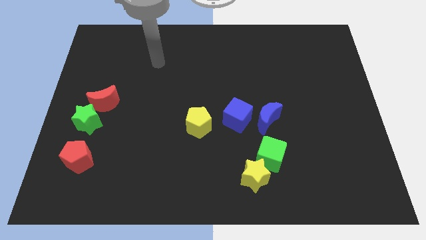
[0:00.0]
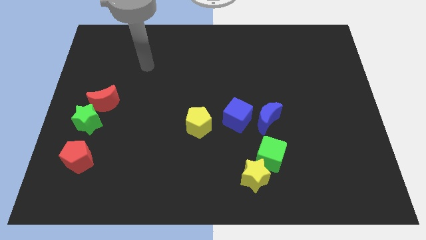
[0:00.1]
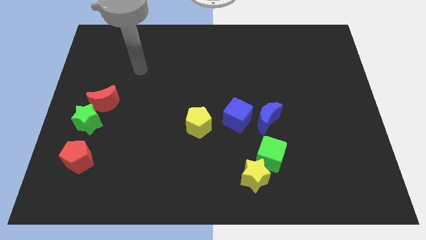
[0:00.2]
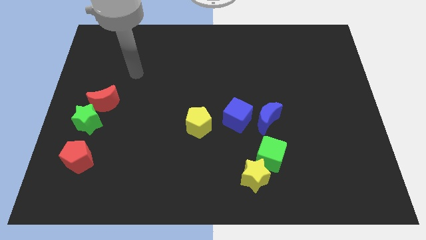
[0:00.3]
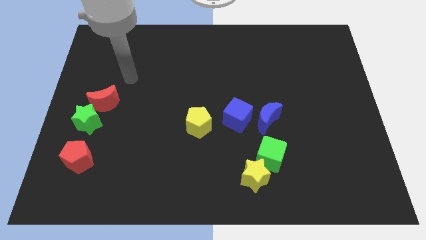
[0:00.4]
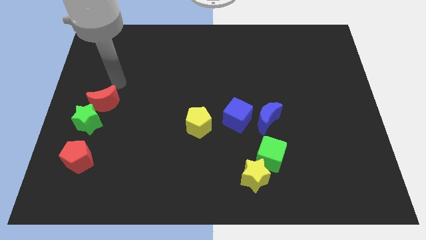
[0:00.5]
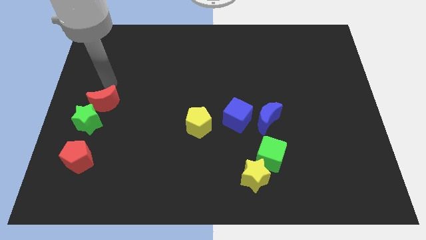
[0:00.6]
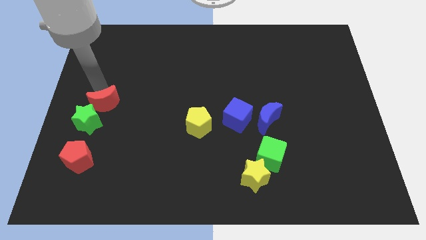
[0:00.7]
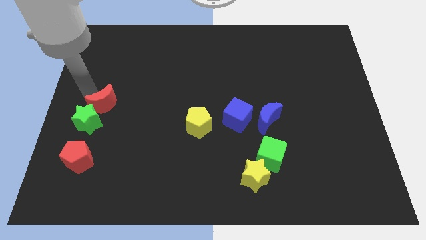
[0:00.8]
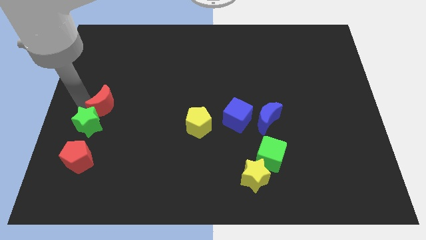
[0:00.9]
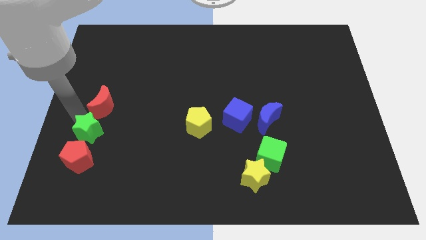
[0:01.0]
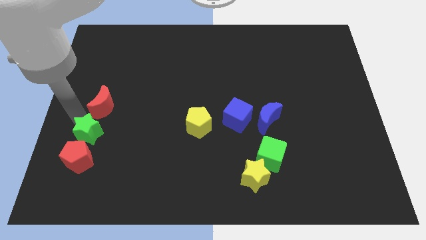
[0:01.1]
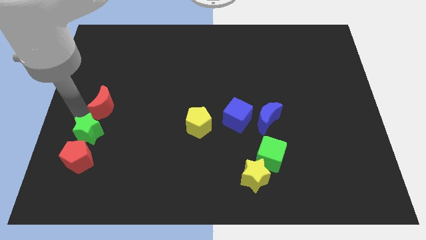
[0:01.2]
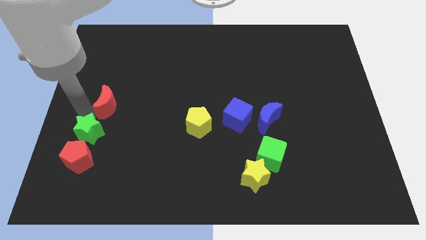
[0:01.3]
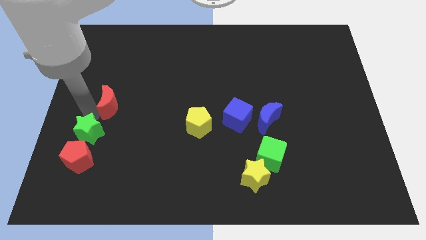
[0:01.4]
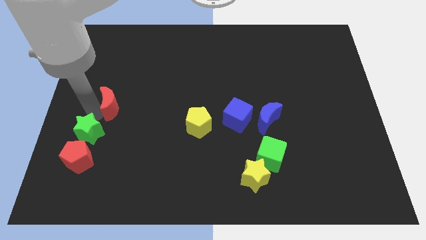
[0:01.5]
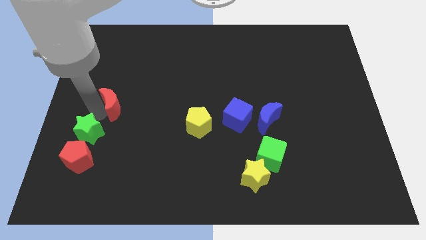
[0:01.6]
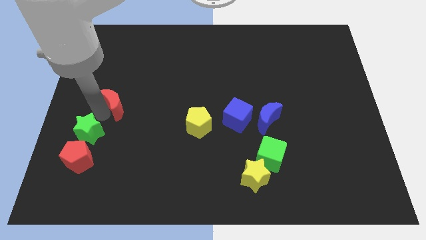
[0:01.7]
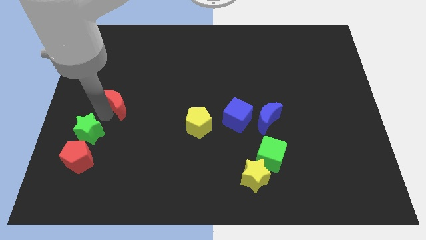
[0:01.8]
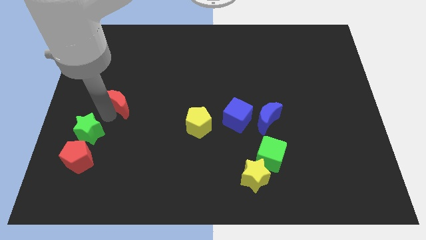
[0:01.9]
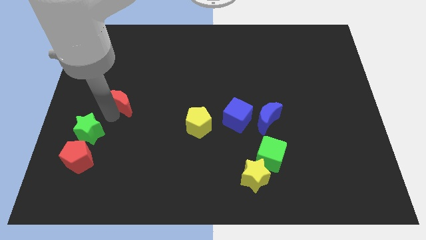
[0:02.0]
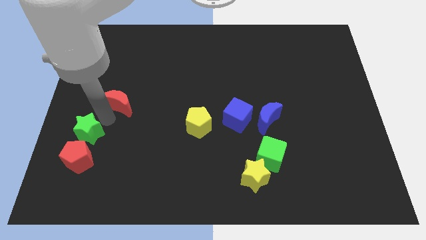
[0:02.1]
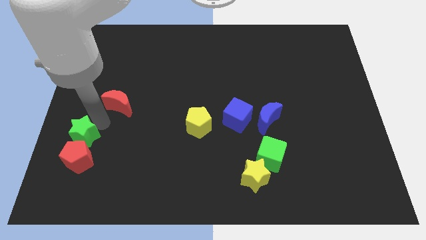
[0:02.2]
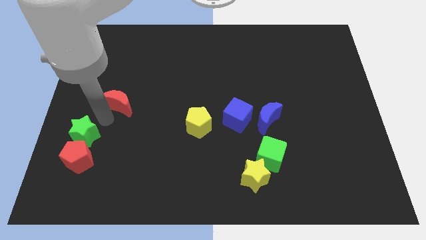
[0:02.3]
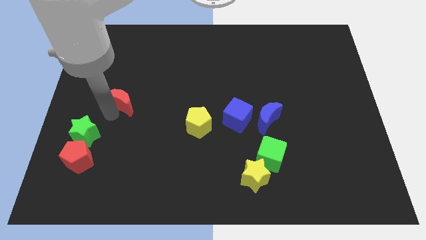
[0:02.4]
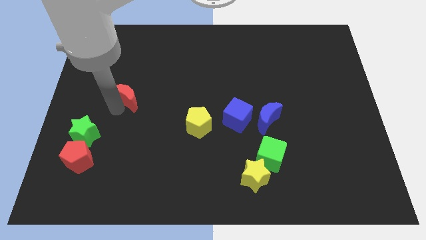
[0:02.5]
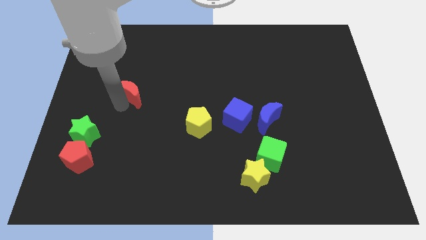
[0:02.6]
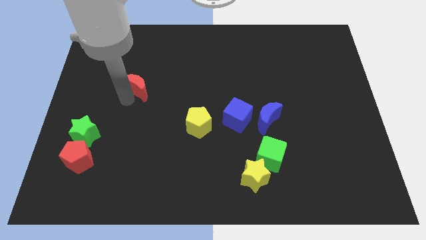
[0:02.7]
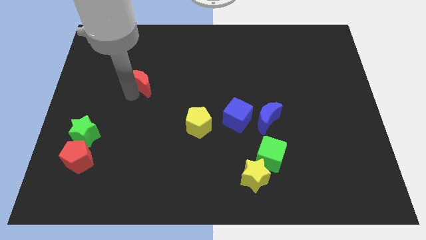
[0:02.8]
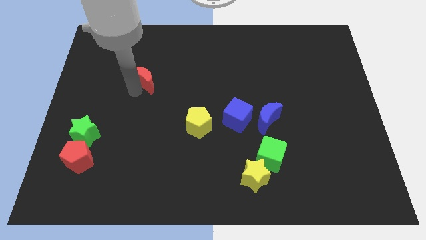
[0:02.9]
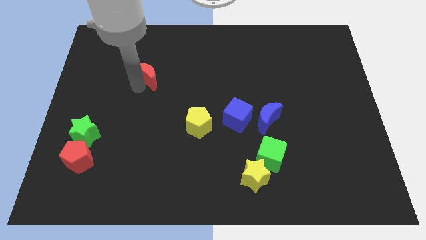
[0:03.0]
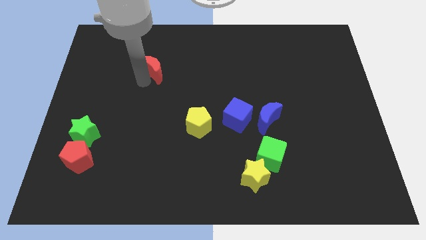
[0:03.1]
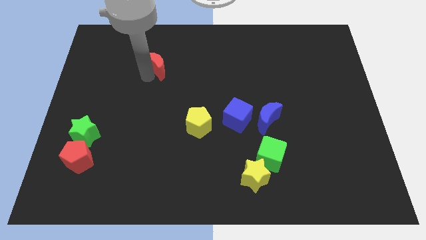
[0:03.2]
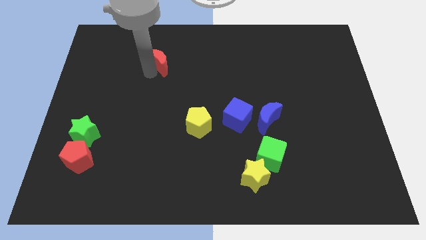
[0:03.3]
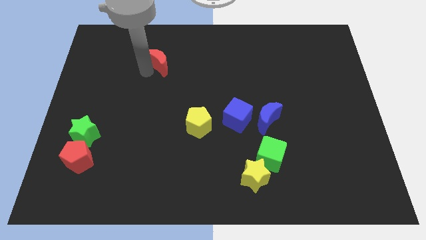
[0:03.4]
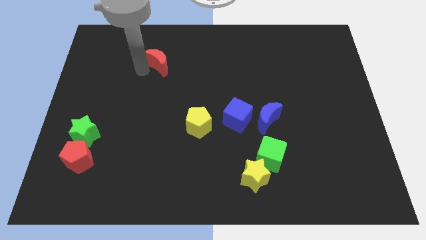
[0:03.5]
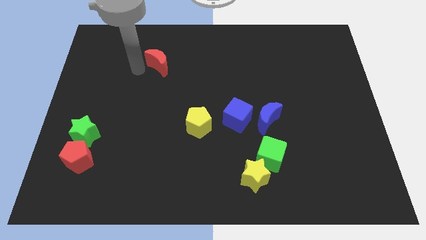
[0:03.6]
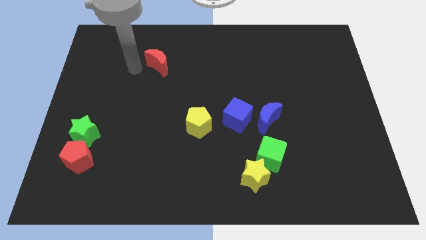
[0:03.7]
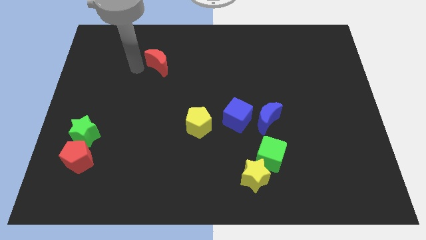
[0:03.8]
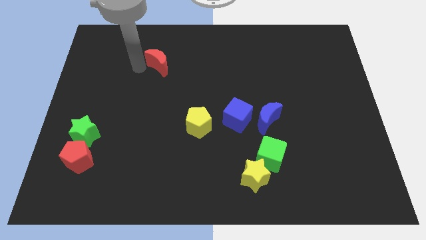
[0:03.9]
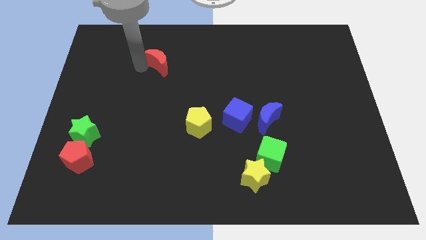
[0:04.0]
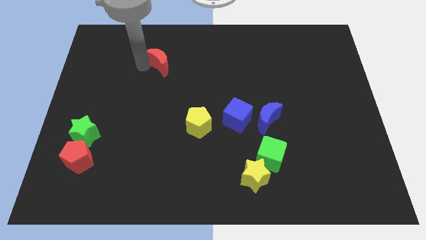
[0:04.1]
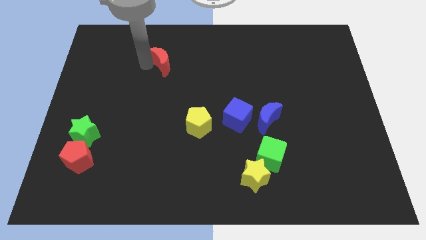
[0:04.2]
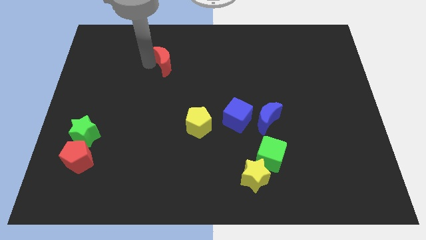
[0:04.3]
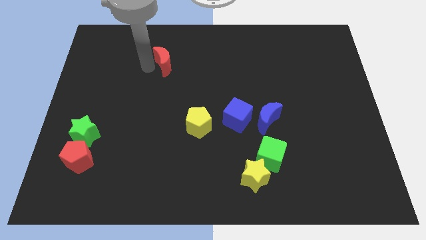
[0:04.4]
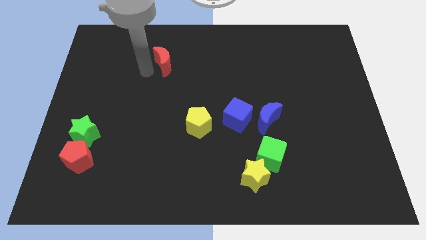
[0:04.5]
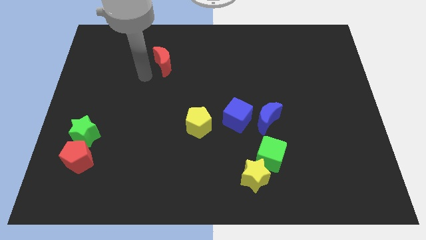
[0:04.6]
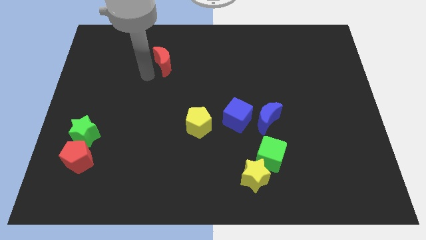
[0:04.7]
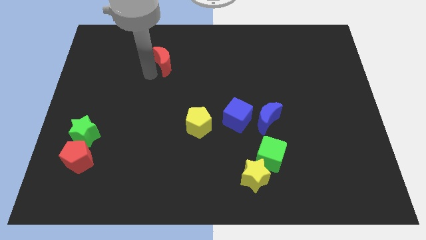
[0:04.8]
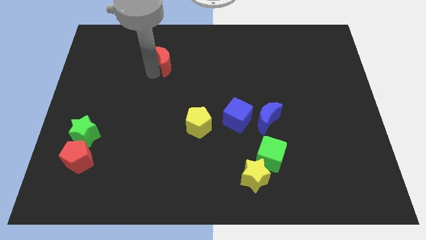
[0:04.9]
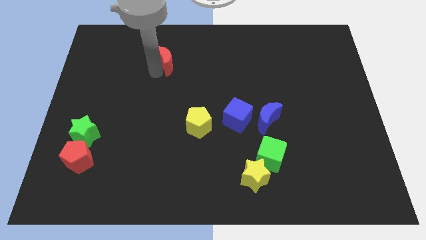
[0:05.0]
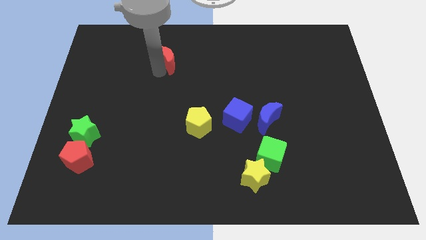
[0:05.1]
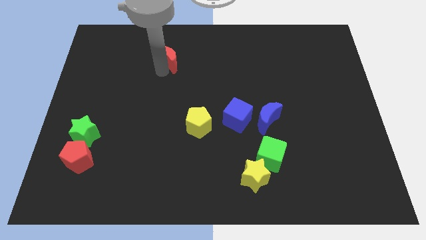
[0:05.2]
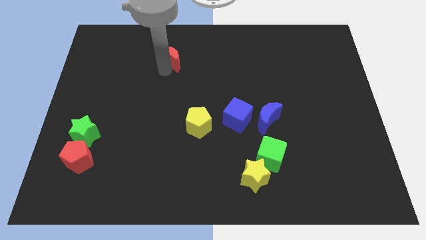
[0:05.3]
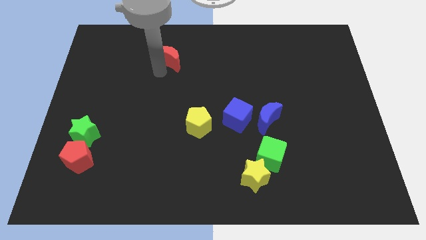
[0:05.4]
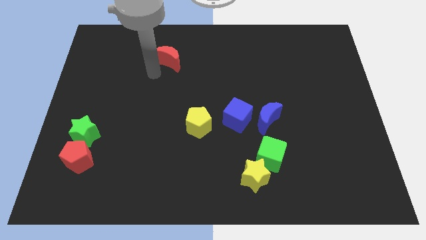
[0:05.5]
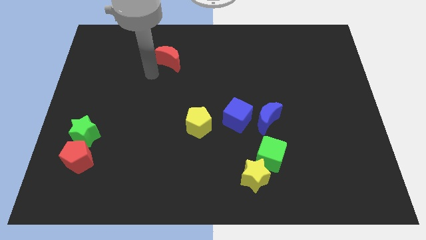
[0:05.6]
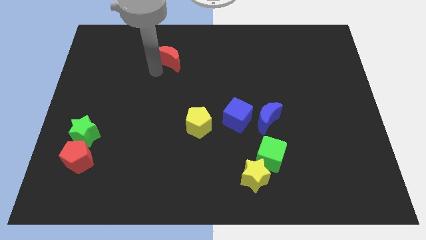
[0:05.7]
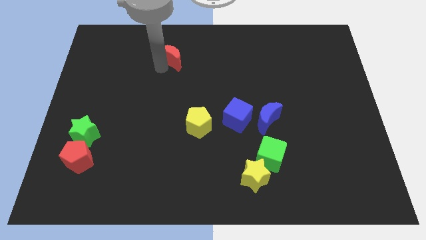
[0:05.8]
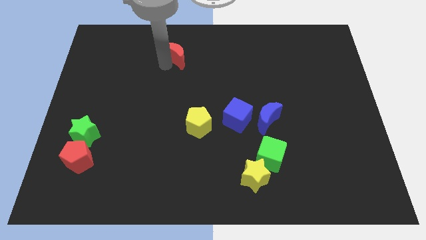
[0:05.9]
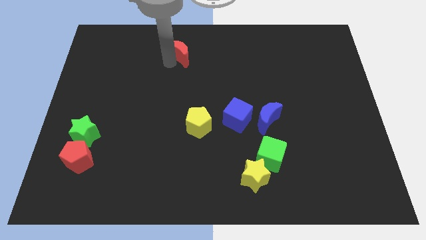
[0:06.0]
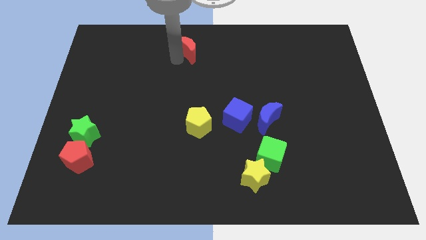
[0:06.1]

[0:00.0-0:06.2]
move the red moon to the top

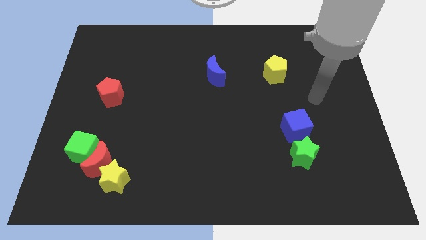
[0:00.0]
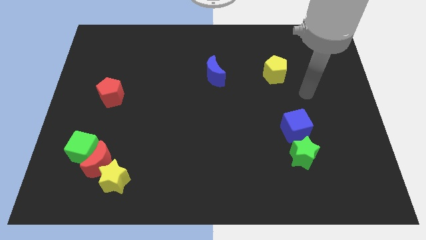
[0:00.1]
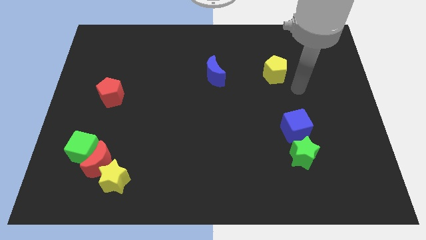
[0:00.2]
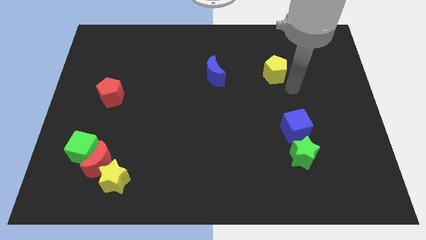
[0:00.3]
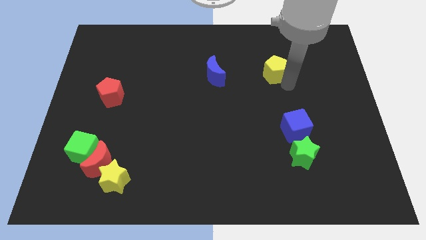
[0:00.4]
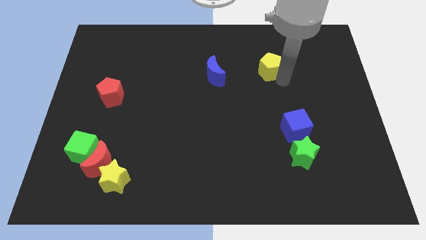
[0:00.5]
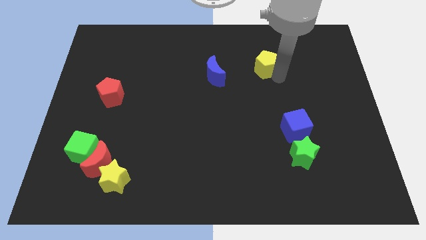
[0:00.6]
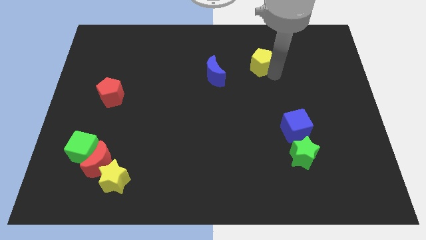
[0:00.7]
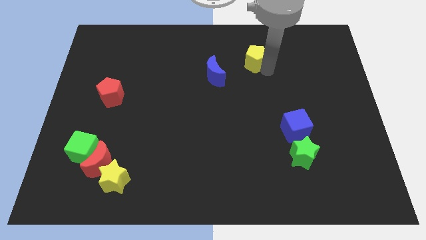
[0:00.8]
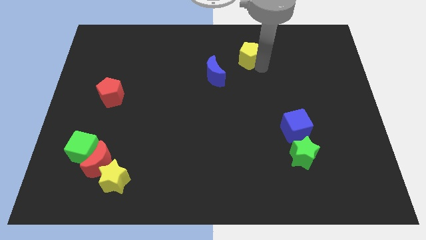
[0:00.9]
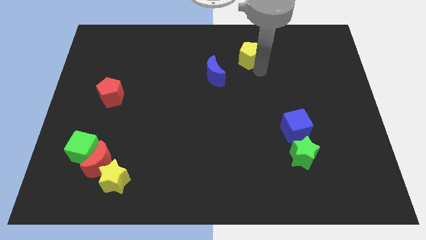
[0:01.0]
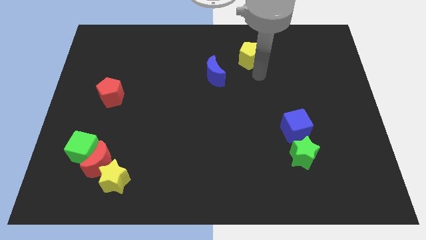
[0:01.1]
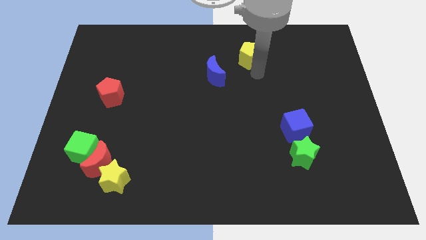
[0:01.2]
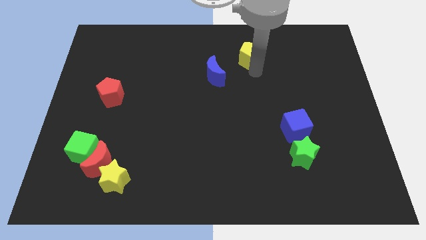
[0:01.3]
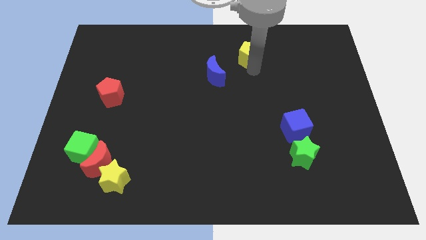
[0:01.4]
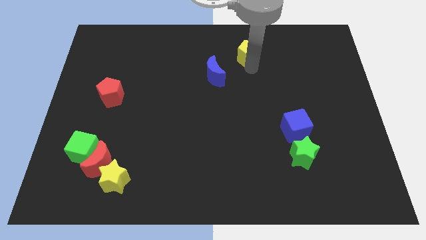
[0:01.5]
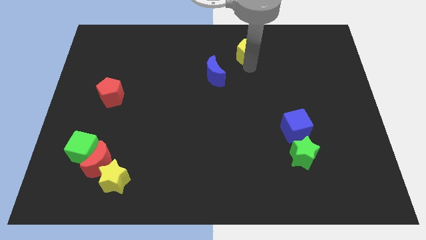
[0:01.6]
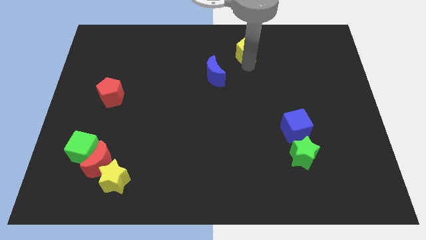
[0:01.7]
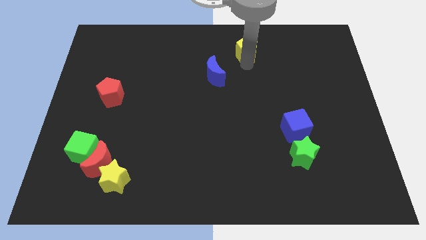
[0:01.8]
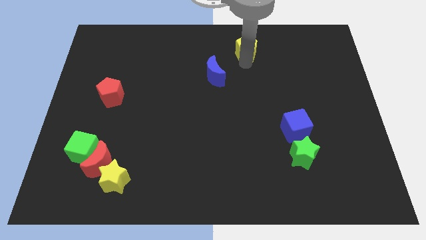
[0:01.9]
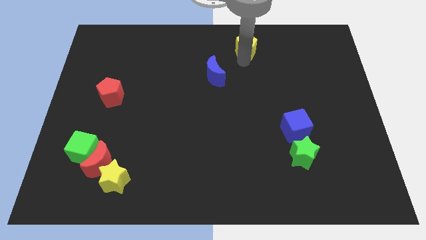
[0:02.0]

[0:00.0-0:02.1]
push the yellow pentagon to the top side
